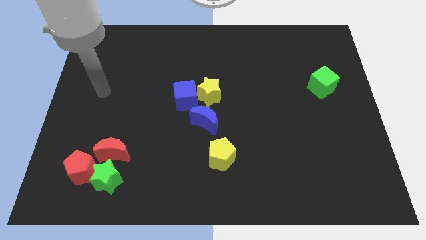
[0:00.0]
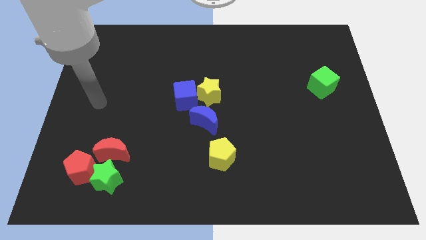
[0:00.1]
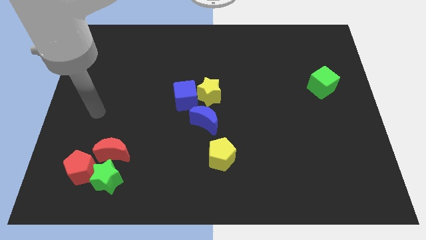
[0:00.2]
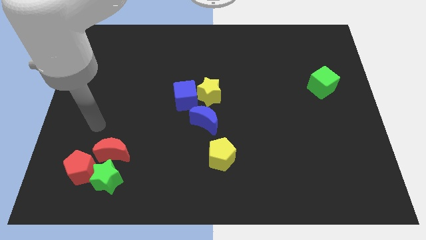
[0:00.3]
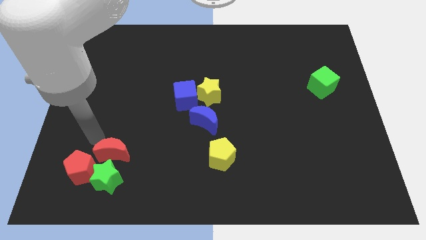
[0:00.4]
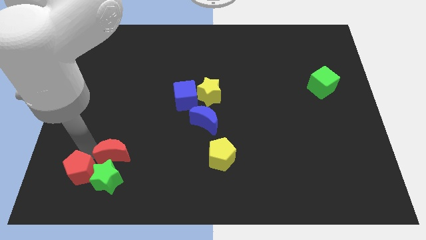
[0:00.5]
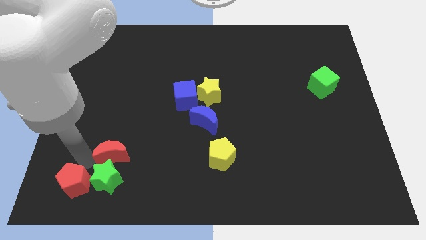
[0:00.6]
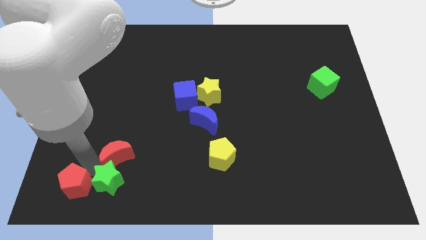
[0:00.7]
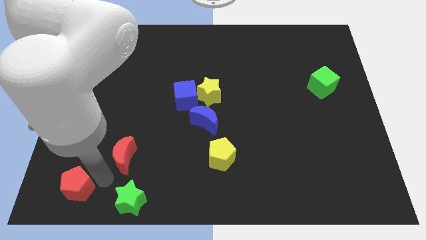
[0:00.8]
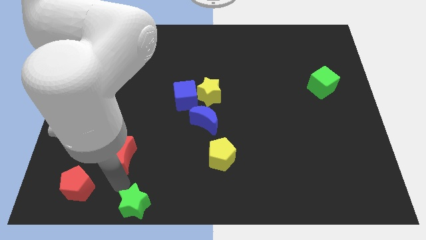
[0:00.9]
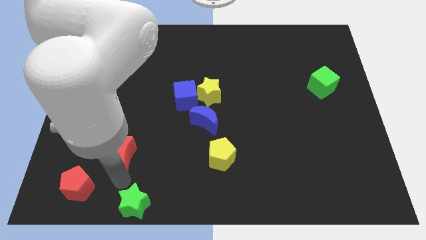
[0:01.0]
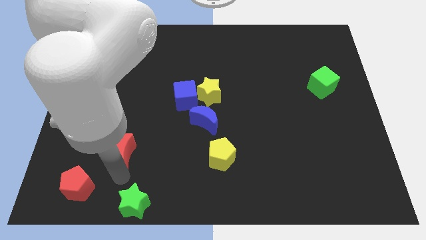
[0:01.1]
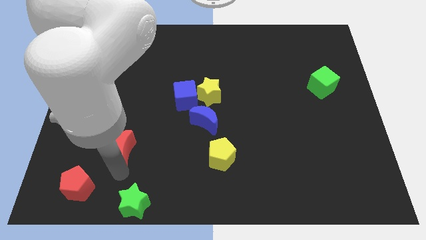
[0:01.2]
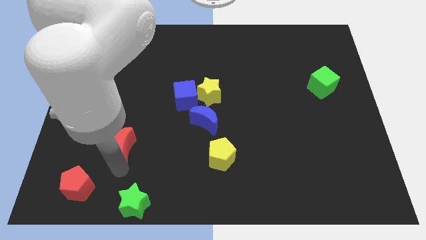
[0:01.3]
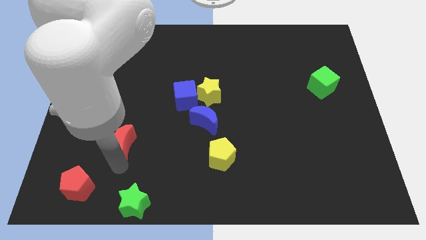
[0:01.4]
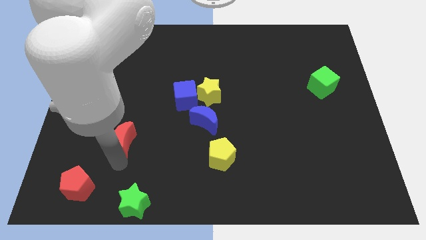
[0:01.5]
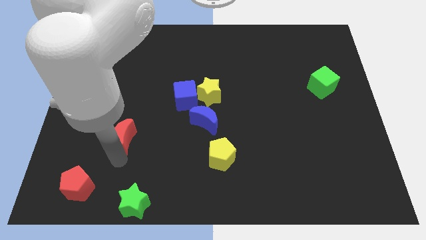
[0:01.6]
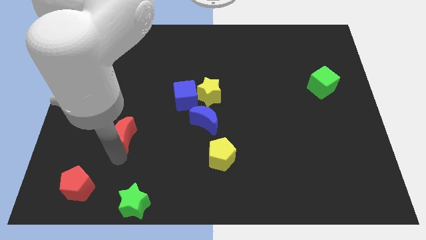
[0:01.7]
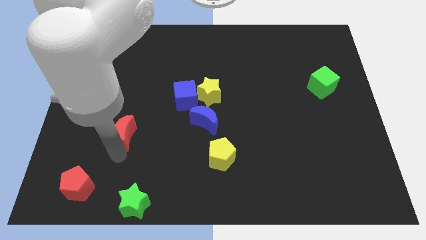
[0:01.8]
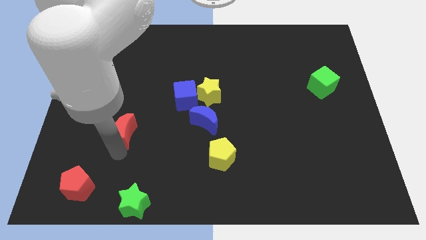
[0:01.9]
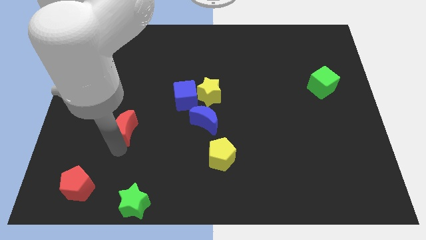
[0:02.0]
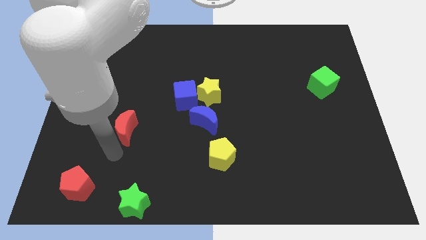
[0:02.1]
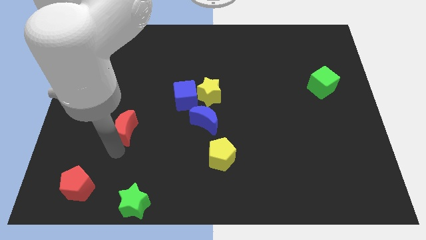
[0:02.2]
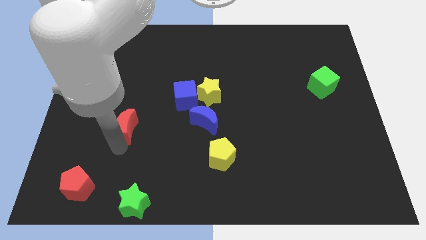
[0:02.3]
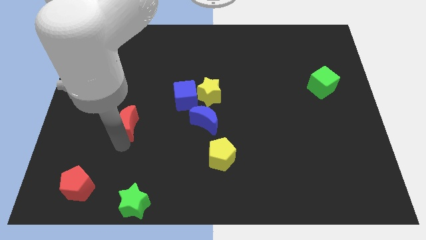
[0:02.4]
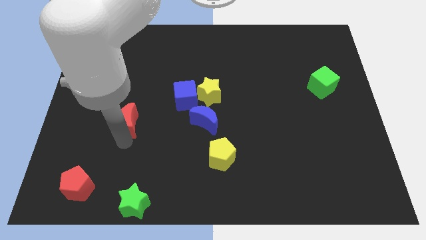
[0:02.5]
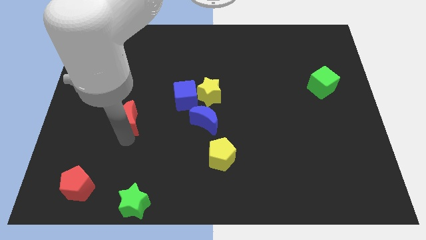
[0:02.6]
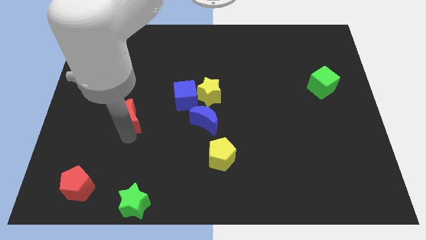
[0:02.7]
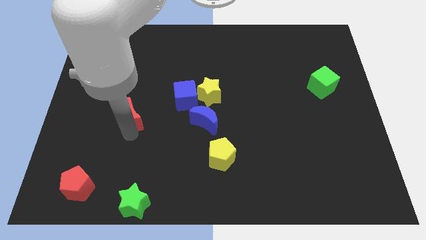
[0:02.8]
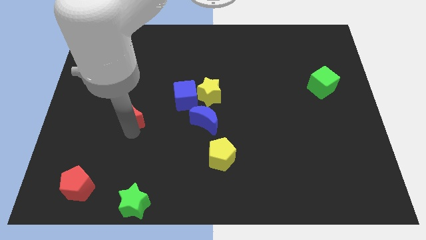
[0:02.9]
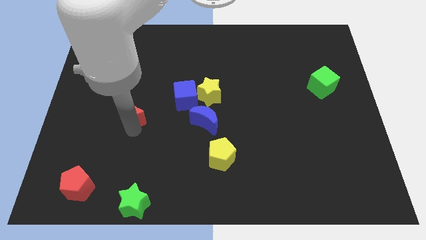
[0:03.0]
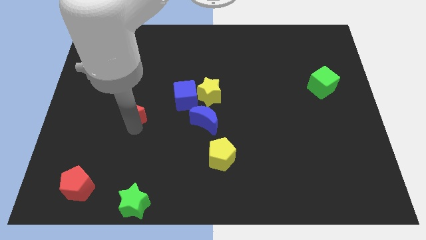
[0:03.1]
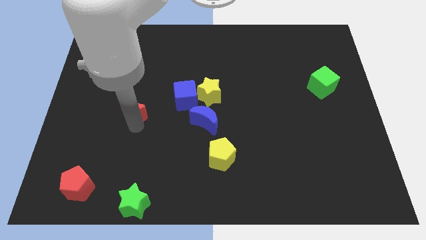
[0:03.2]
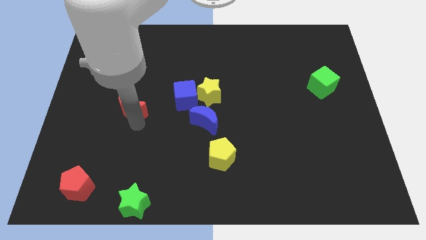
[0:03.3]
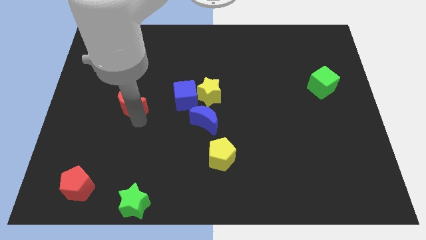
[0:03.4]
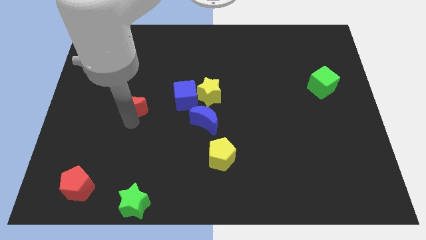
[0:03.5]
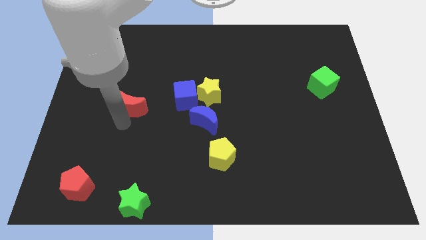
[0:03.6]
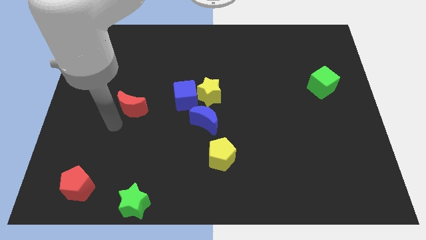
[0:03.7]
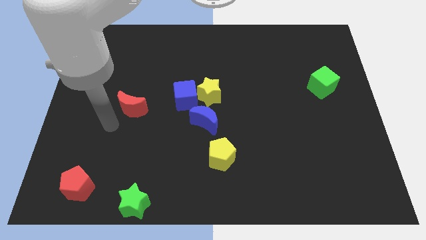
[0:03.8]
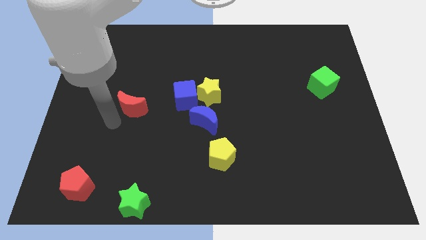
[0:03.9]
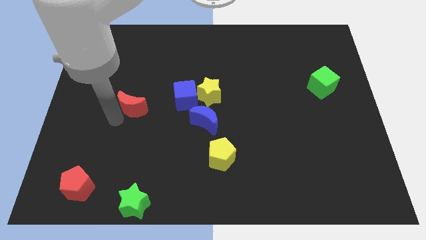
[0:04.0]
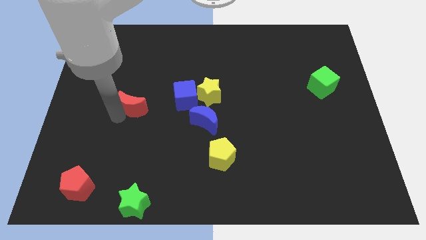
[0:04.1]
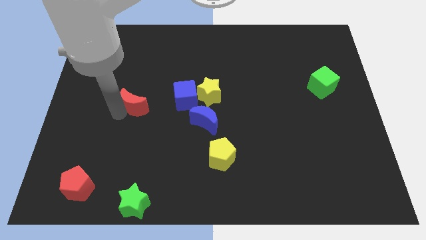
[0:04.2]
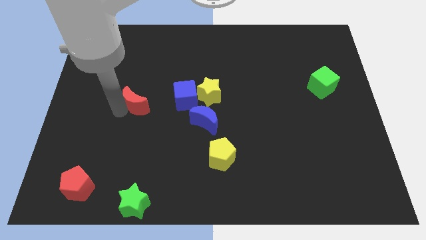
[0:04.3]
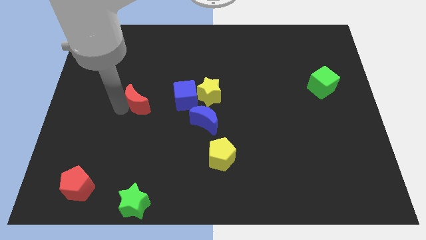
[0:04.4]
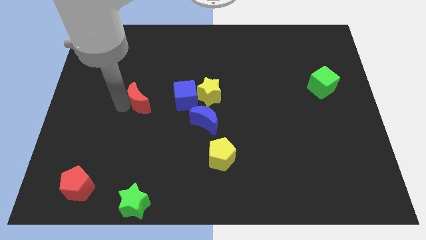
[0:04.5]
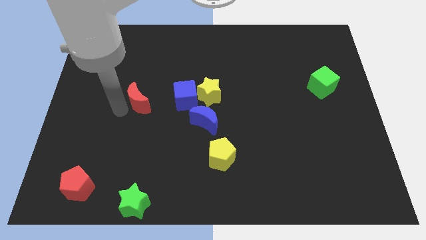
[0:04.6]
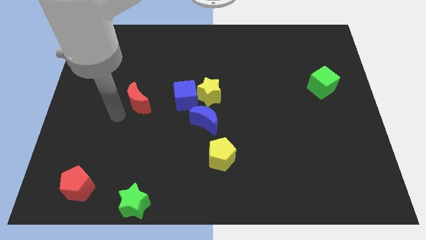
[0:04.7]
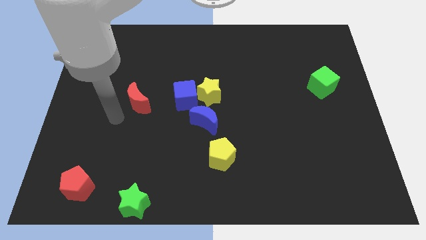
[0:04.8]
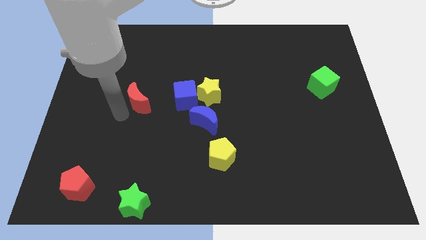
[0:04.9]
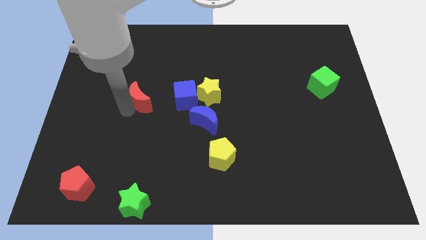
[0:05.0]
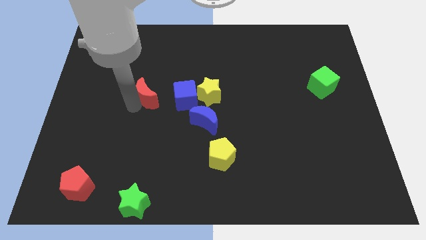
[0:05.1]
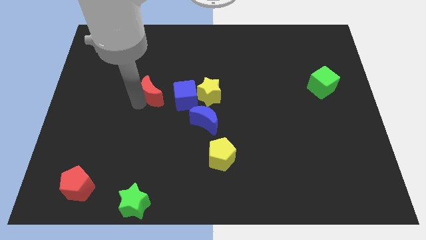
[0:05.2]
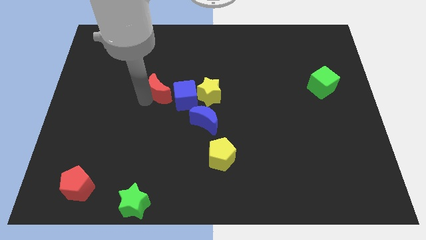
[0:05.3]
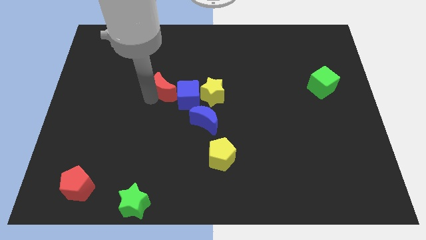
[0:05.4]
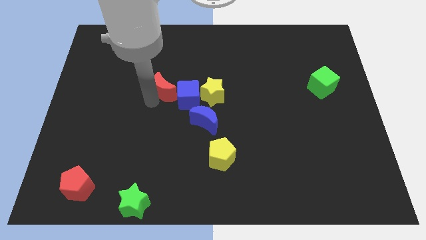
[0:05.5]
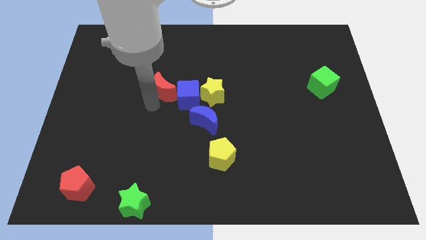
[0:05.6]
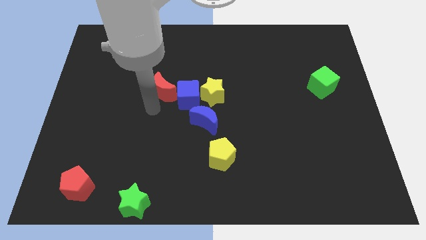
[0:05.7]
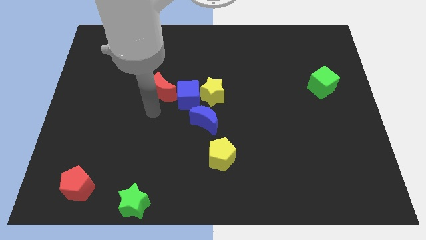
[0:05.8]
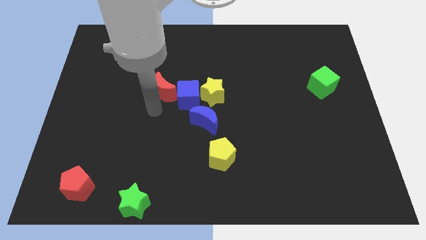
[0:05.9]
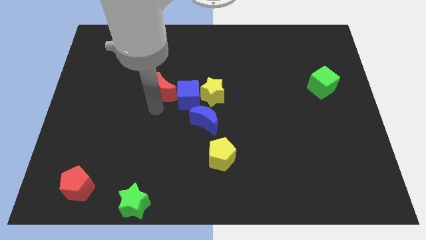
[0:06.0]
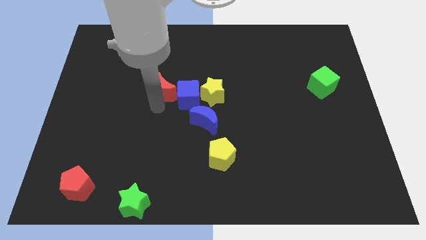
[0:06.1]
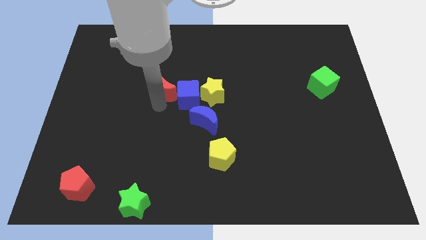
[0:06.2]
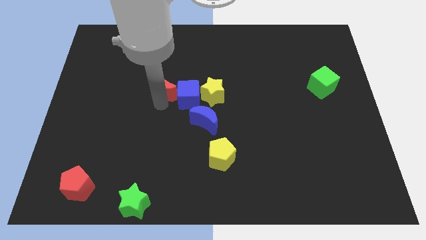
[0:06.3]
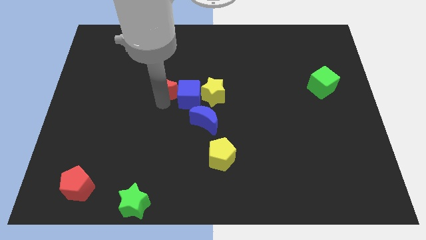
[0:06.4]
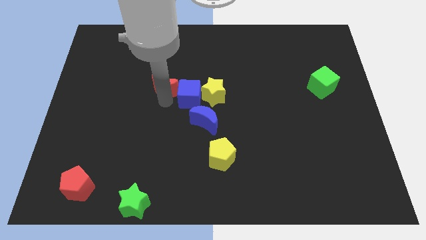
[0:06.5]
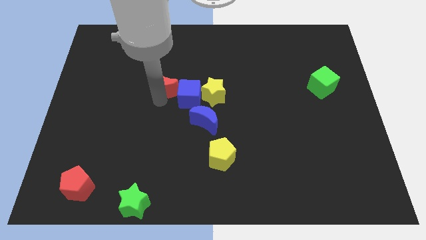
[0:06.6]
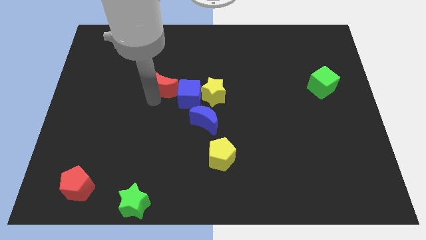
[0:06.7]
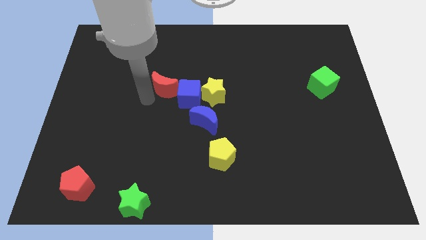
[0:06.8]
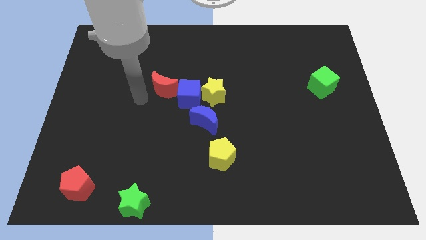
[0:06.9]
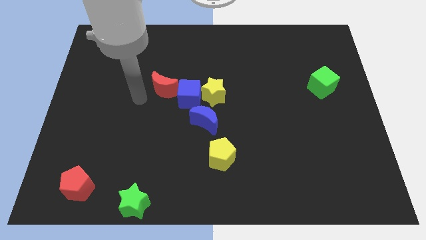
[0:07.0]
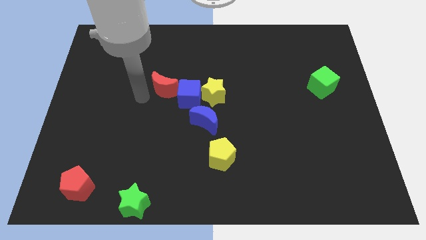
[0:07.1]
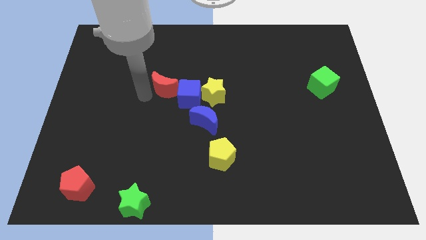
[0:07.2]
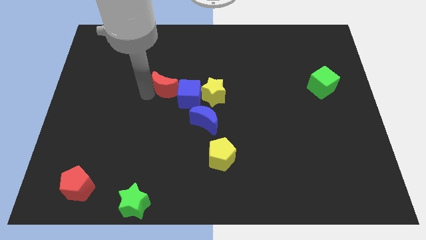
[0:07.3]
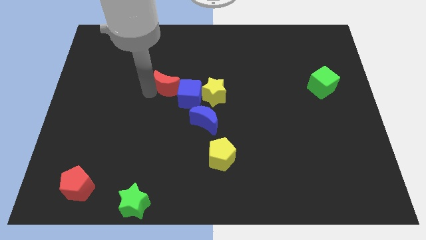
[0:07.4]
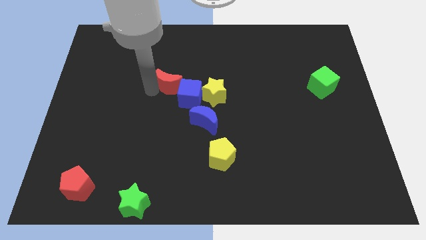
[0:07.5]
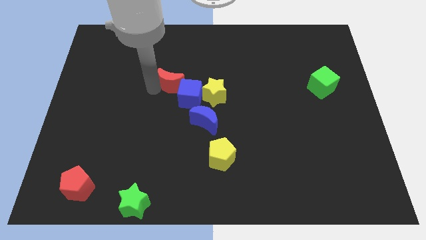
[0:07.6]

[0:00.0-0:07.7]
push the red moon up and right
